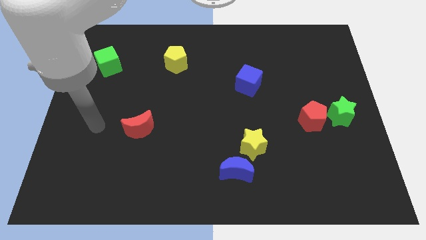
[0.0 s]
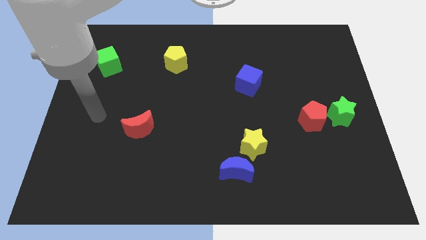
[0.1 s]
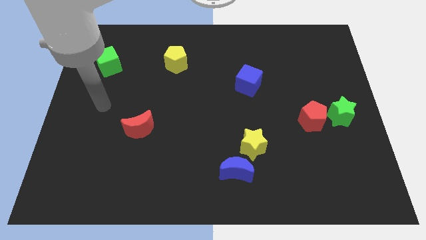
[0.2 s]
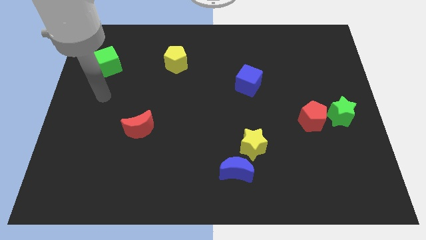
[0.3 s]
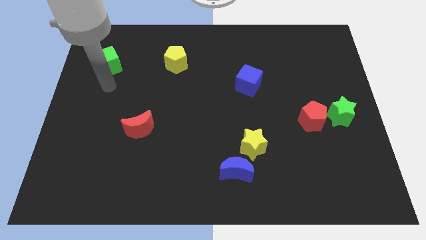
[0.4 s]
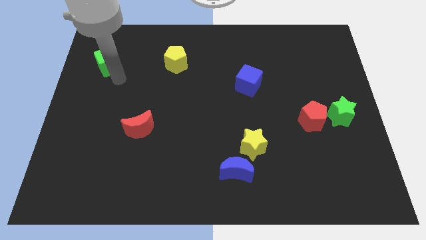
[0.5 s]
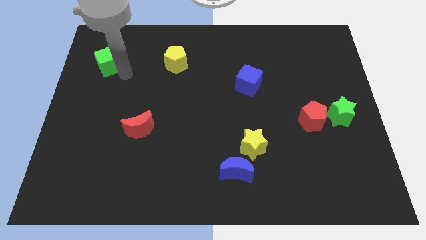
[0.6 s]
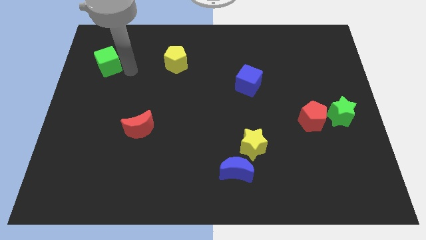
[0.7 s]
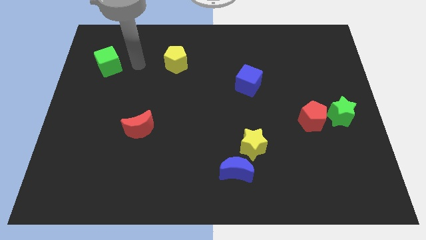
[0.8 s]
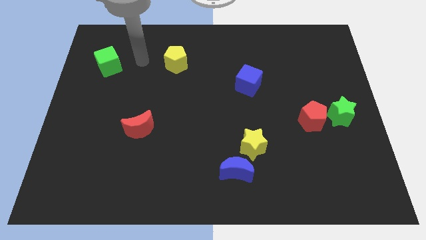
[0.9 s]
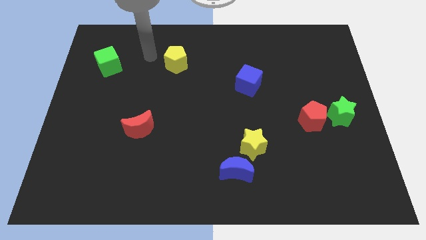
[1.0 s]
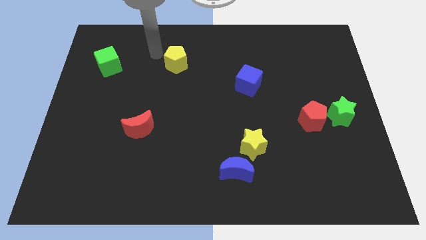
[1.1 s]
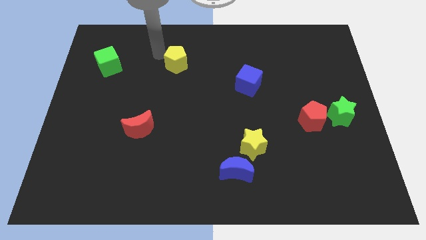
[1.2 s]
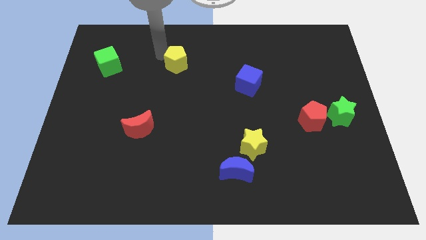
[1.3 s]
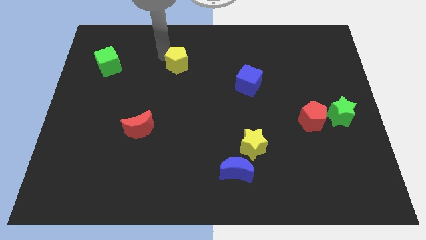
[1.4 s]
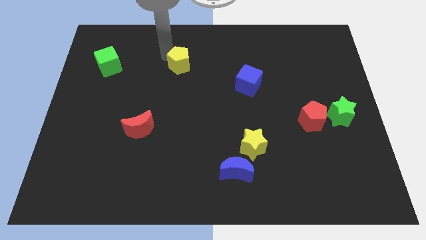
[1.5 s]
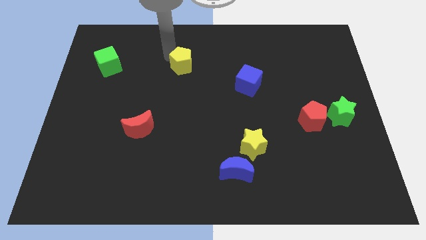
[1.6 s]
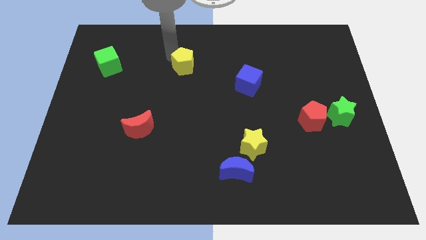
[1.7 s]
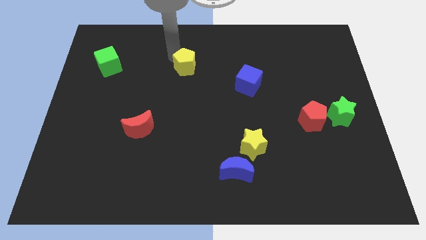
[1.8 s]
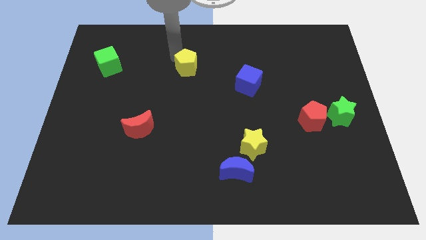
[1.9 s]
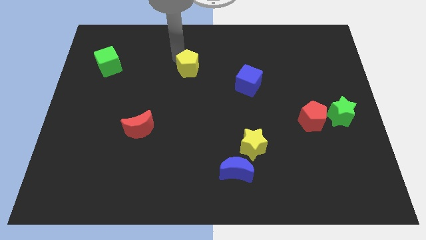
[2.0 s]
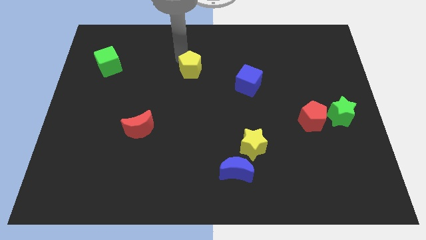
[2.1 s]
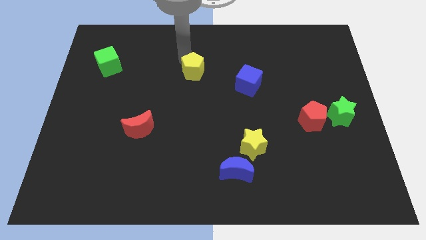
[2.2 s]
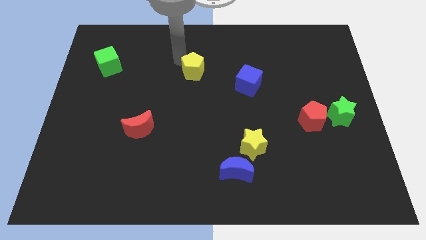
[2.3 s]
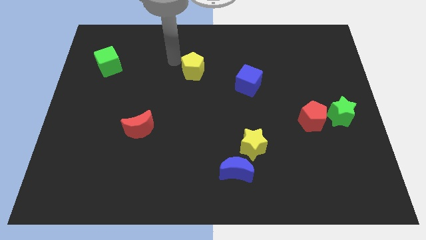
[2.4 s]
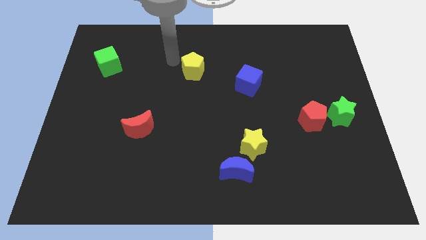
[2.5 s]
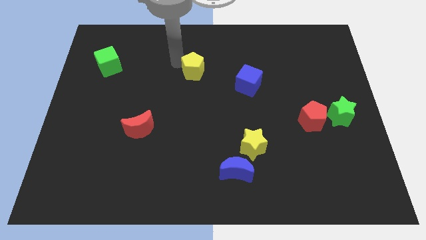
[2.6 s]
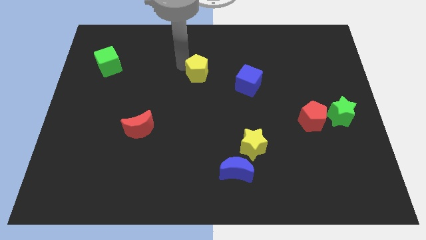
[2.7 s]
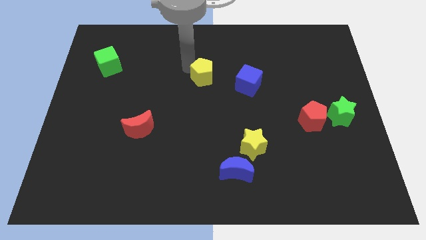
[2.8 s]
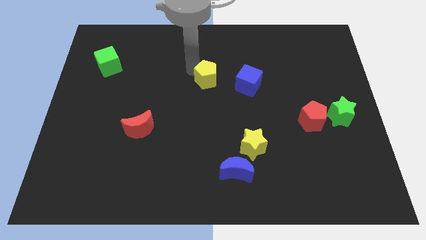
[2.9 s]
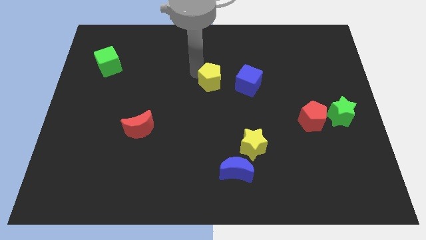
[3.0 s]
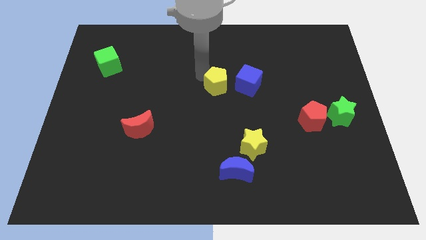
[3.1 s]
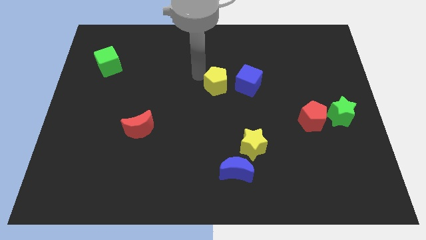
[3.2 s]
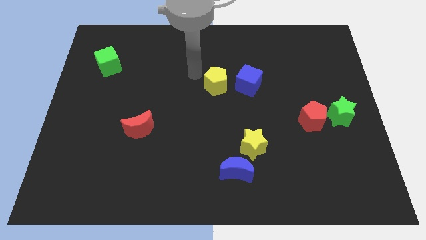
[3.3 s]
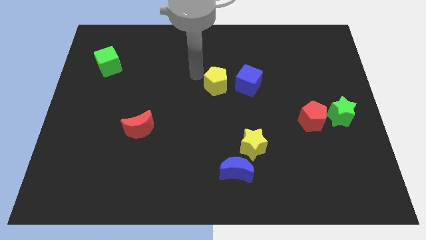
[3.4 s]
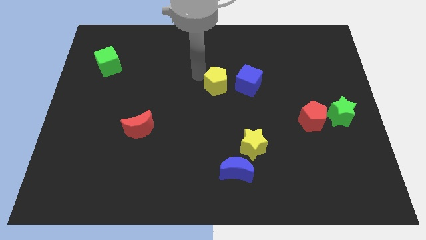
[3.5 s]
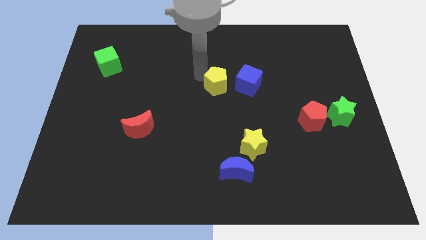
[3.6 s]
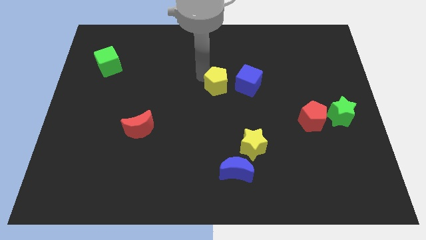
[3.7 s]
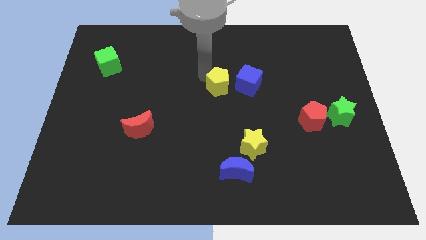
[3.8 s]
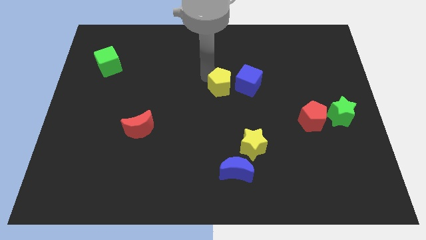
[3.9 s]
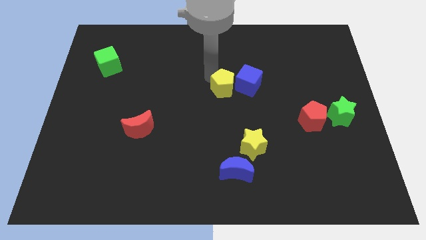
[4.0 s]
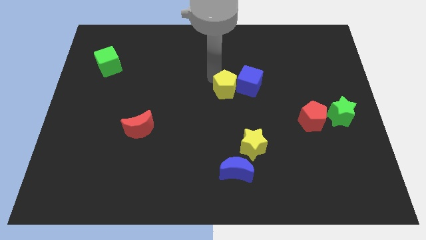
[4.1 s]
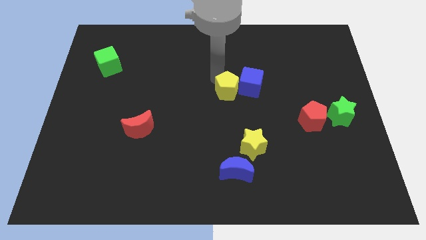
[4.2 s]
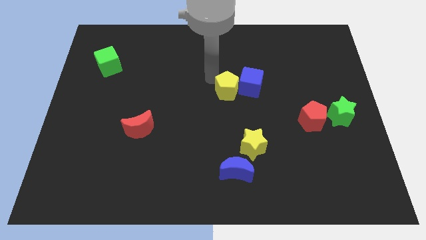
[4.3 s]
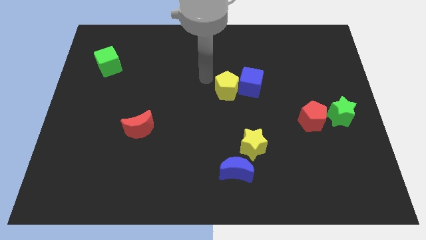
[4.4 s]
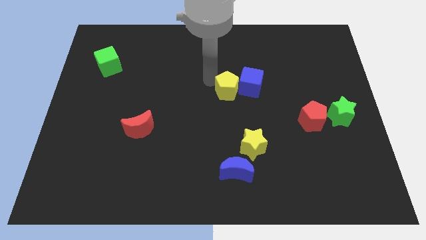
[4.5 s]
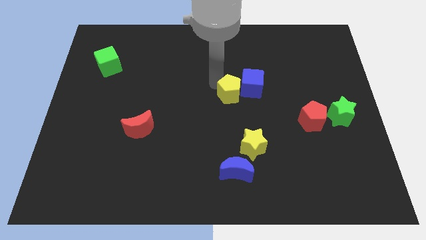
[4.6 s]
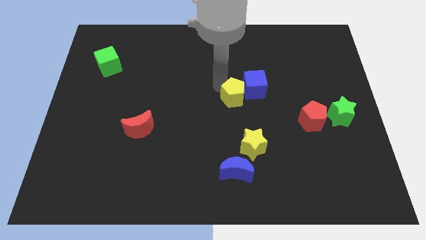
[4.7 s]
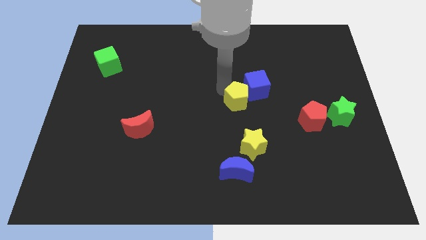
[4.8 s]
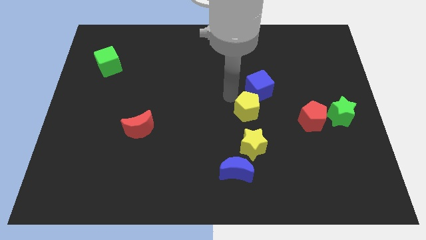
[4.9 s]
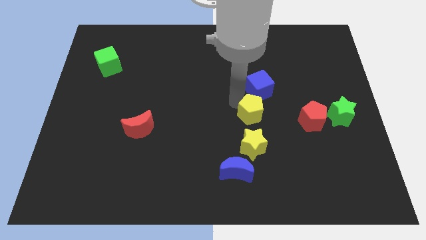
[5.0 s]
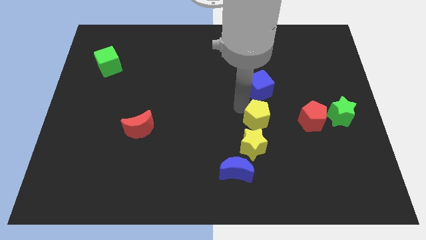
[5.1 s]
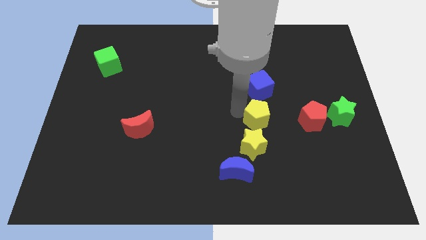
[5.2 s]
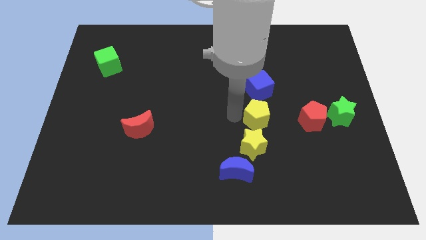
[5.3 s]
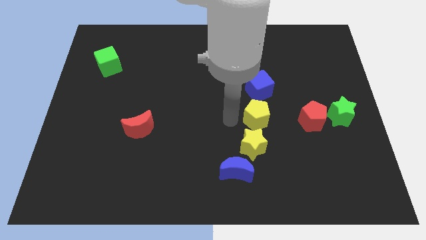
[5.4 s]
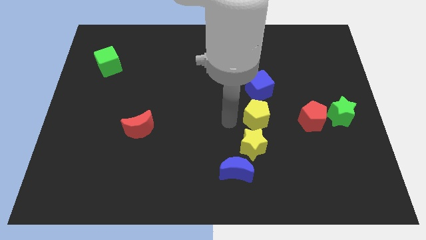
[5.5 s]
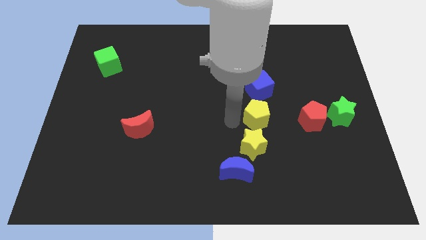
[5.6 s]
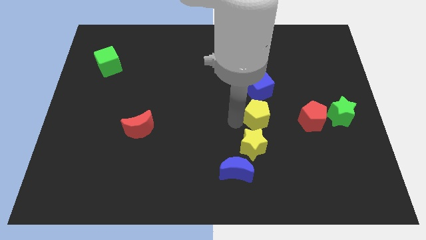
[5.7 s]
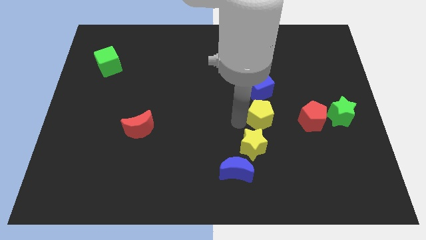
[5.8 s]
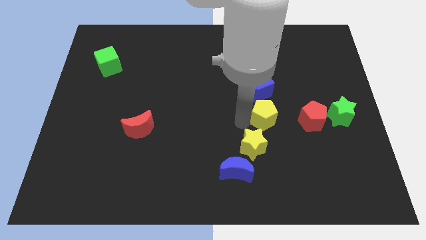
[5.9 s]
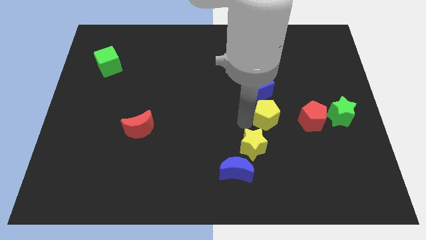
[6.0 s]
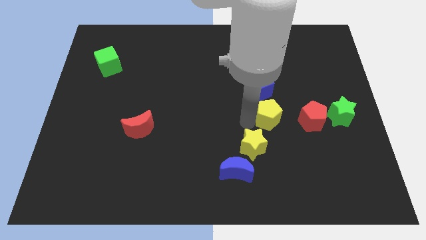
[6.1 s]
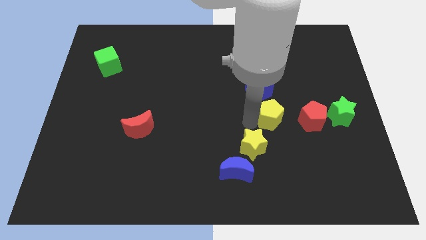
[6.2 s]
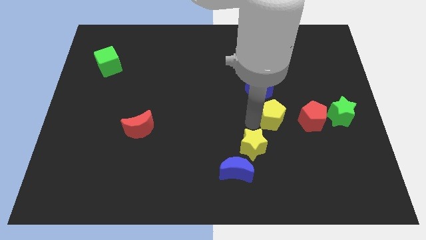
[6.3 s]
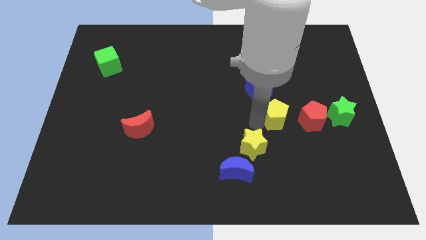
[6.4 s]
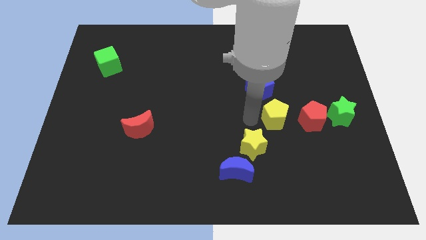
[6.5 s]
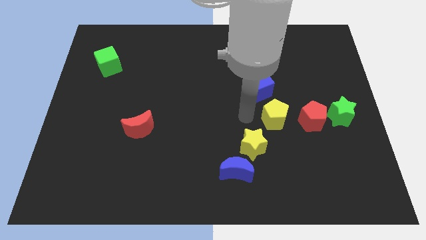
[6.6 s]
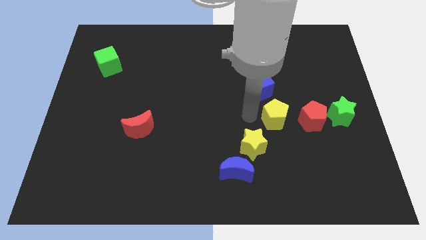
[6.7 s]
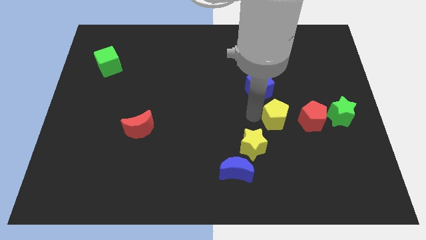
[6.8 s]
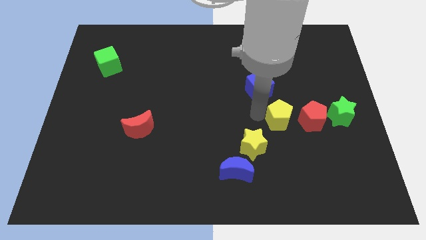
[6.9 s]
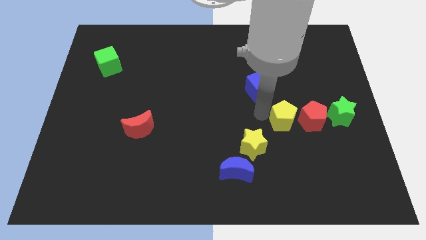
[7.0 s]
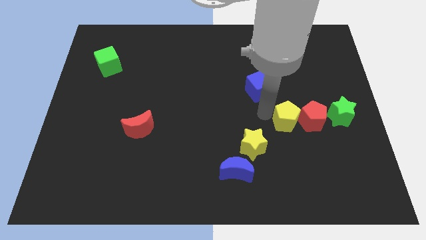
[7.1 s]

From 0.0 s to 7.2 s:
put the yellow pentagon next to the red pentagon
